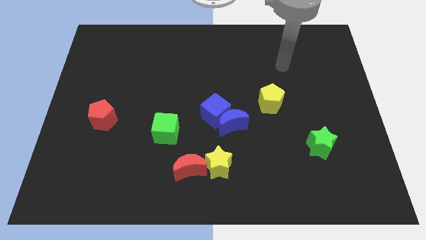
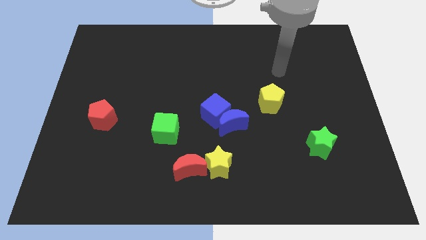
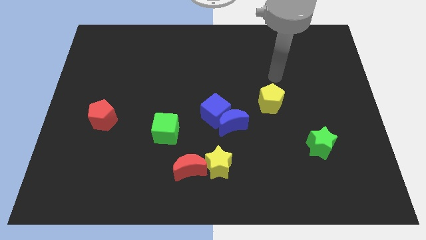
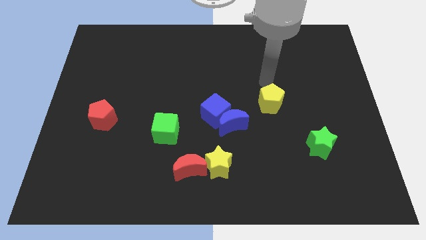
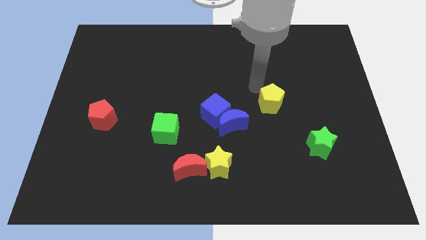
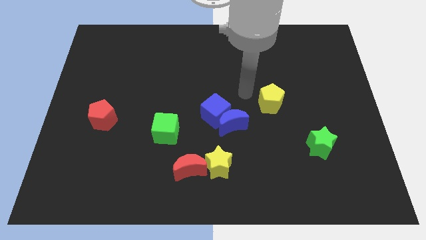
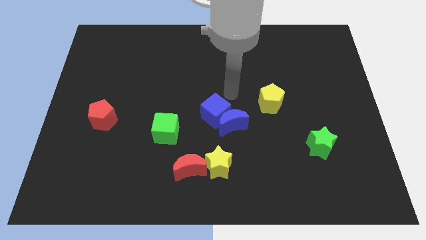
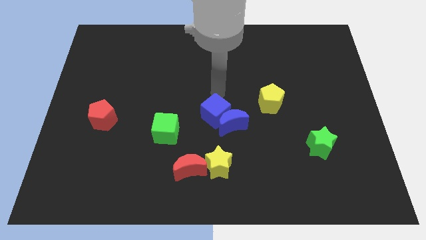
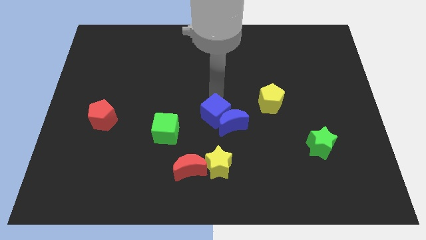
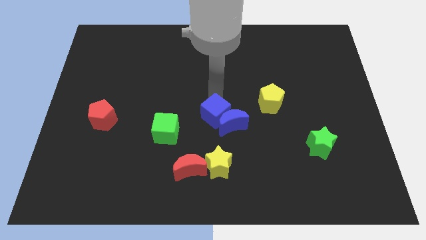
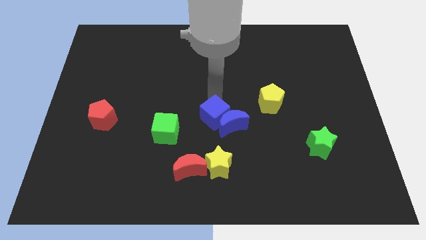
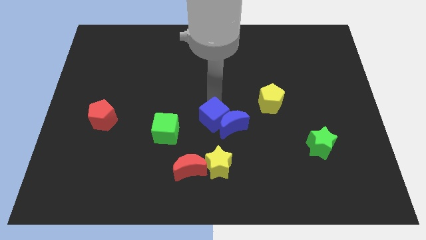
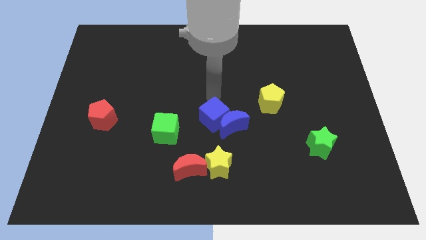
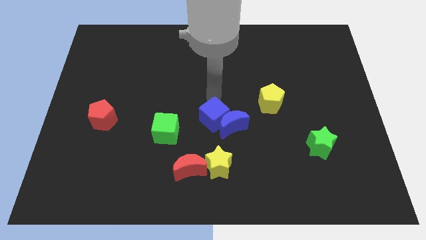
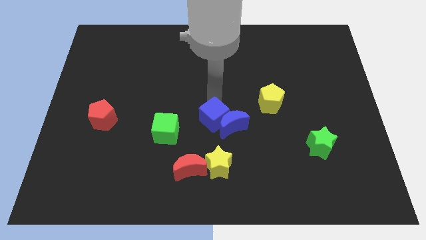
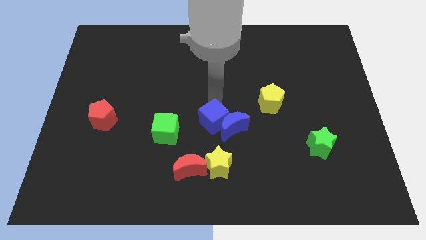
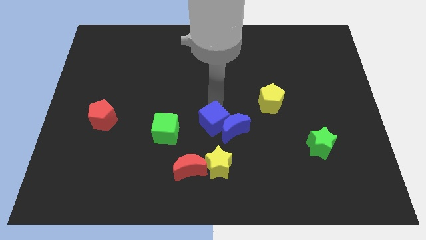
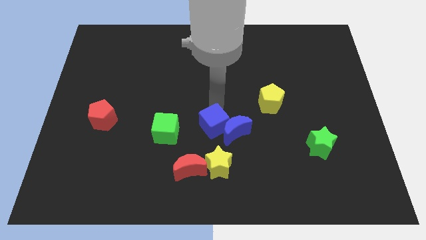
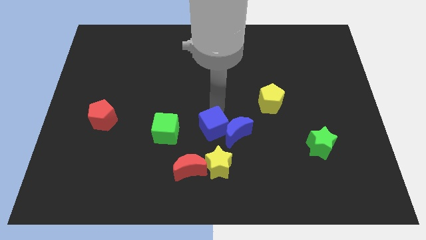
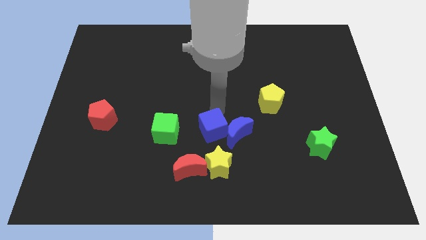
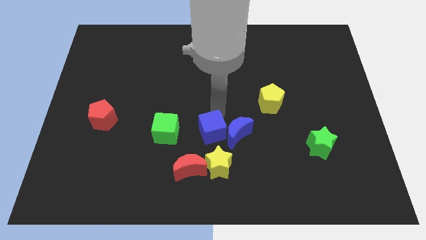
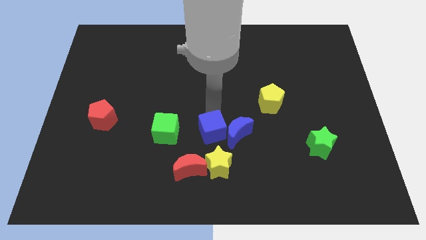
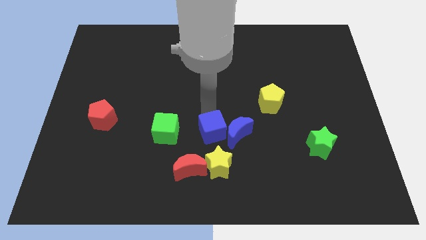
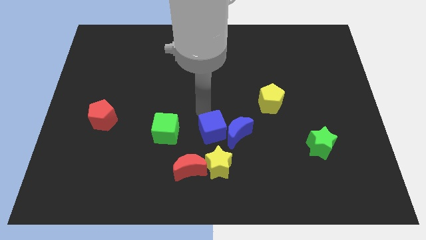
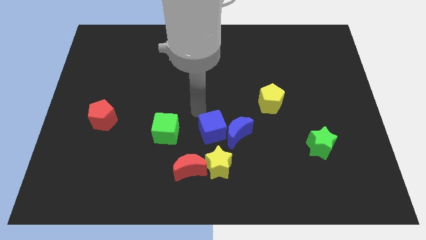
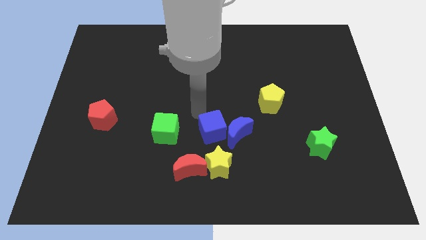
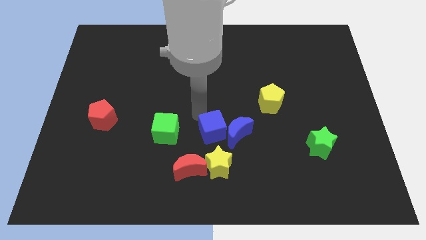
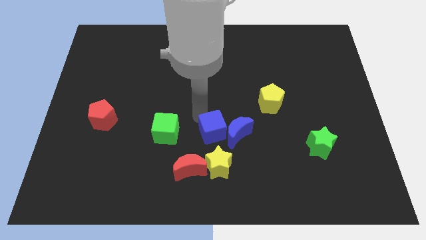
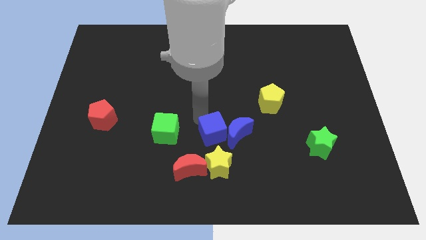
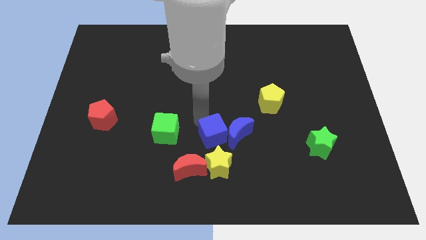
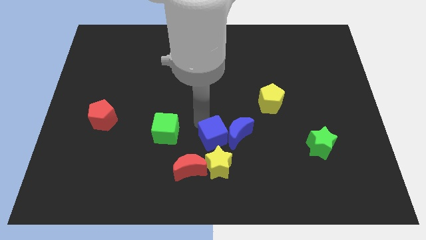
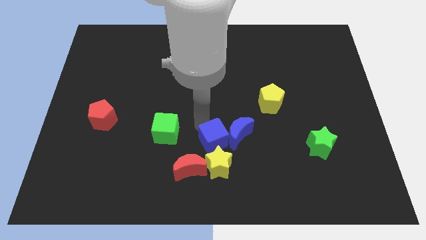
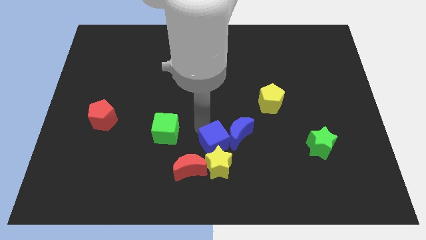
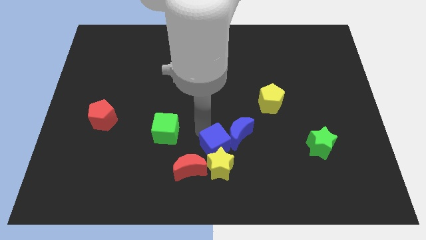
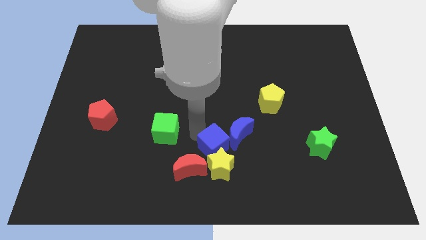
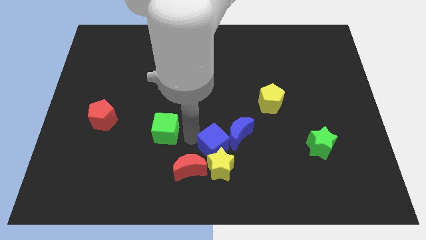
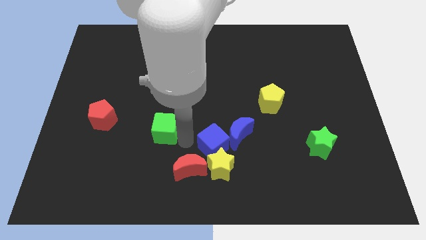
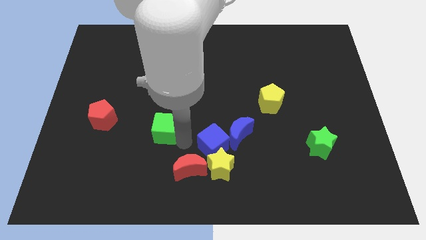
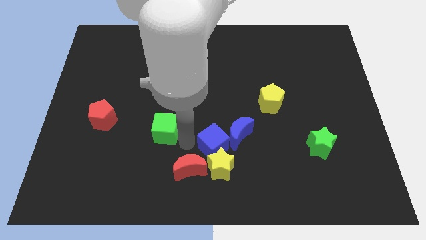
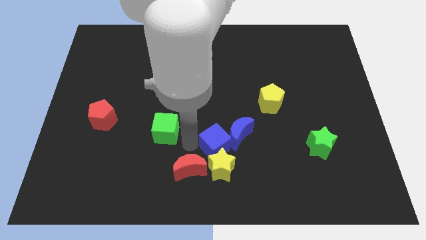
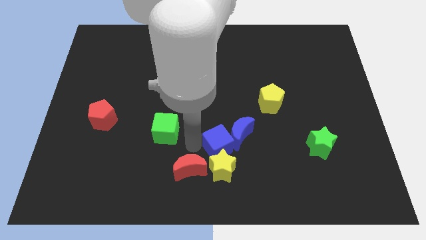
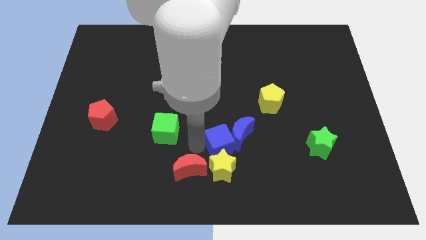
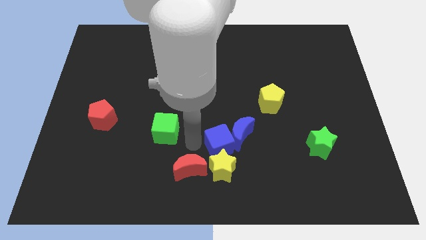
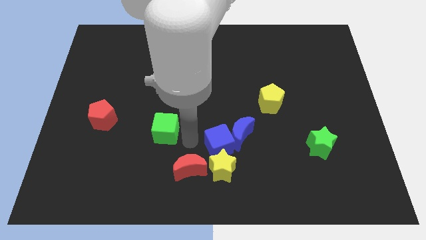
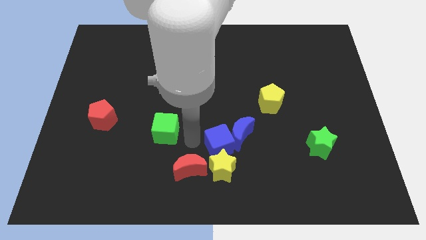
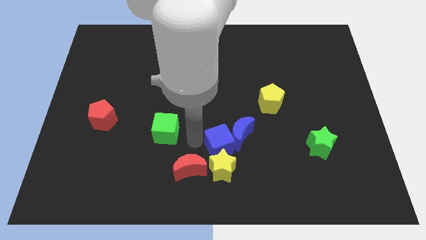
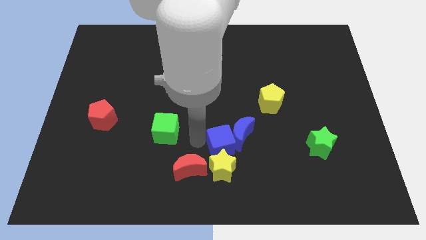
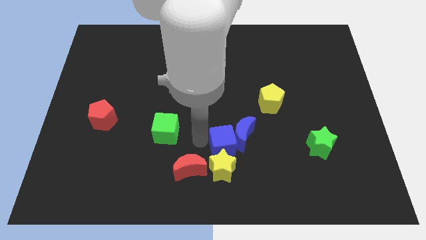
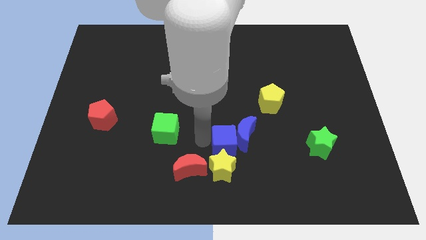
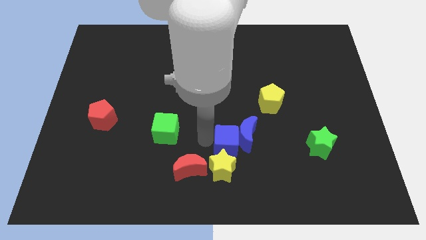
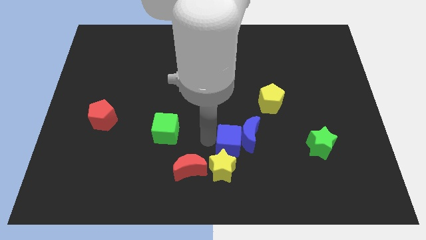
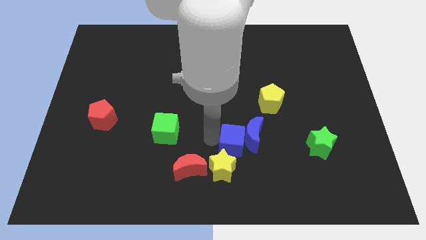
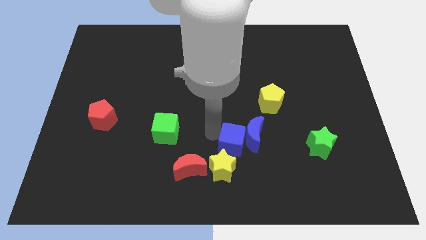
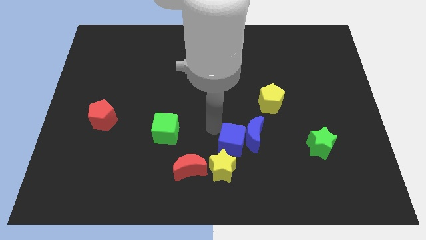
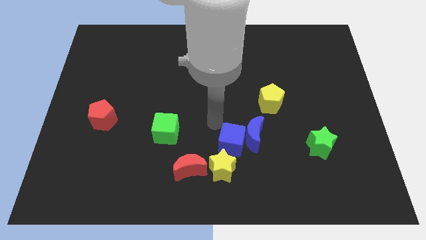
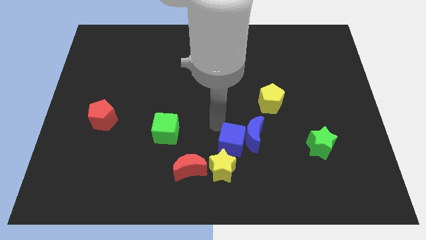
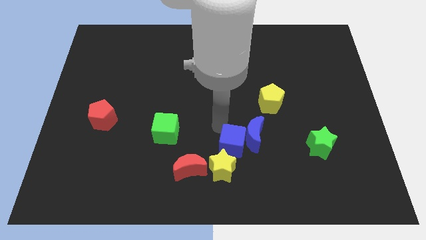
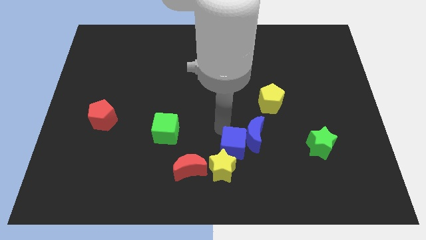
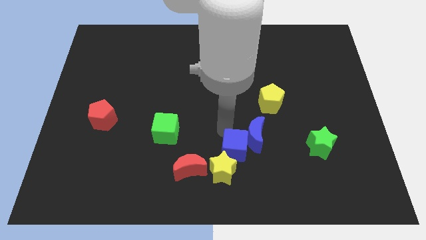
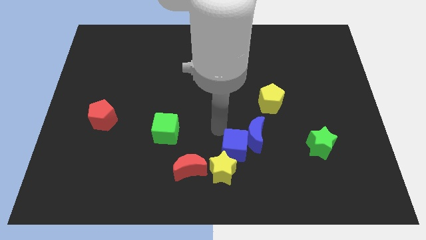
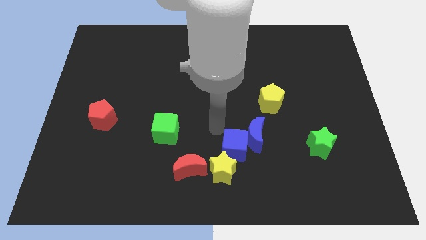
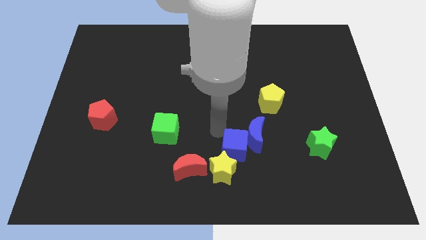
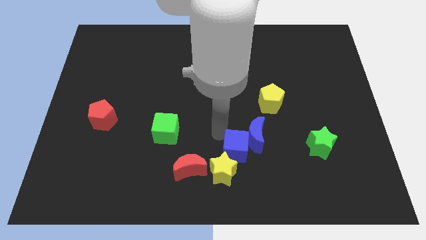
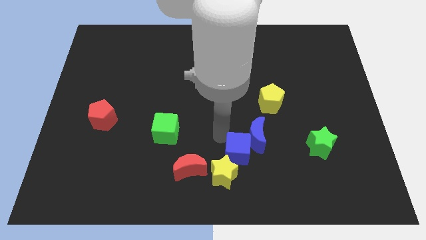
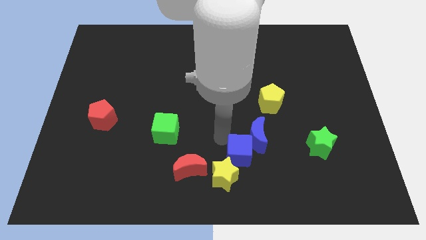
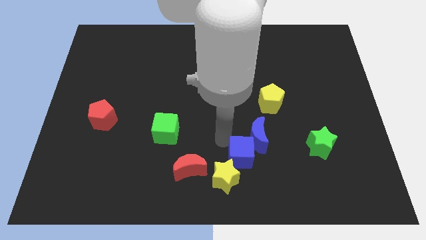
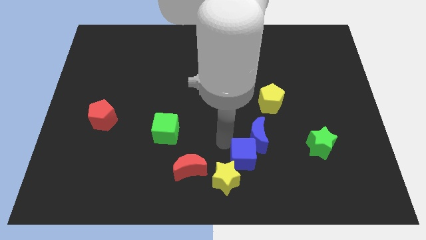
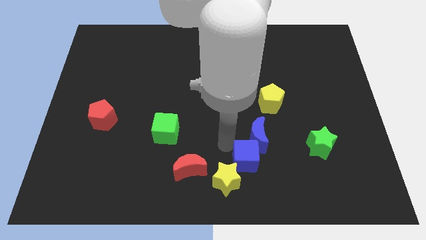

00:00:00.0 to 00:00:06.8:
slide the blue cube to the bottom
